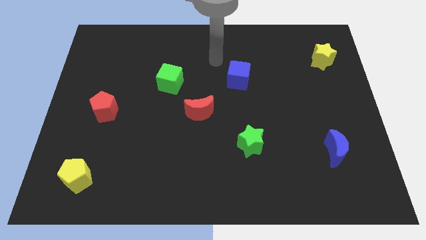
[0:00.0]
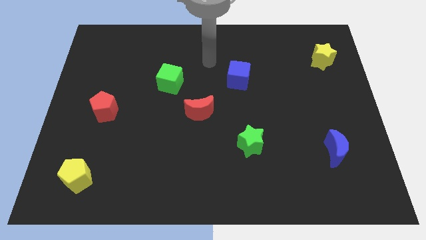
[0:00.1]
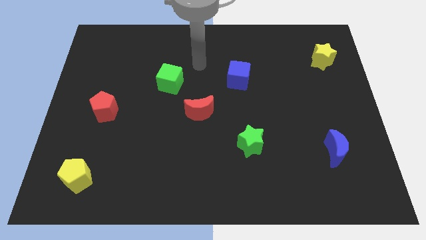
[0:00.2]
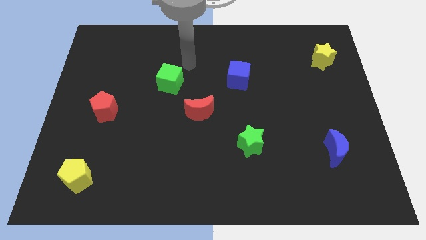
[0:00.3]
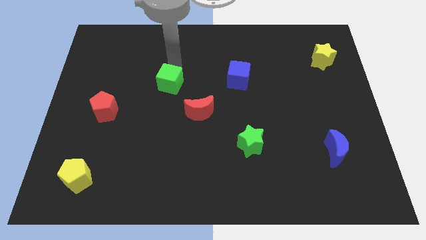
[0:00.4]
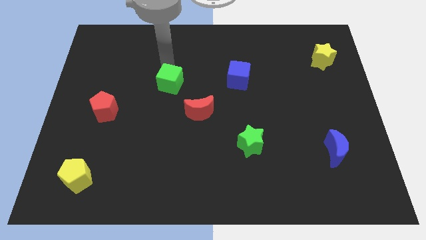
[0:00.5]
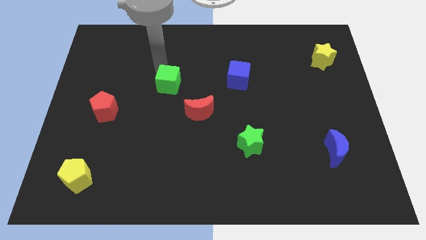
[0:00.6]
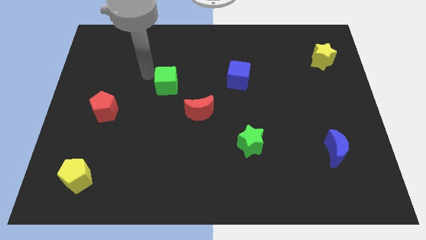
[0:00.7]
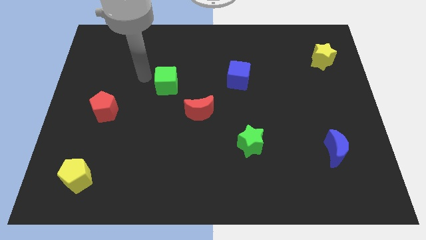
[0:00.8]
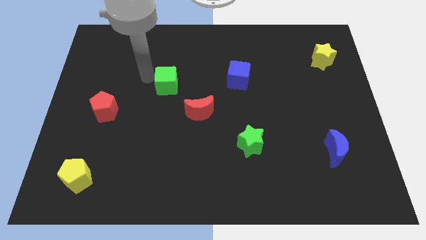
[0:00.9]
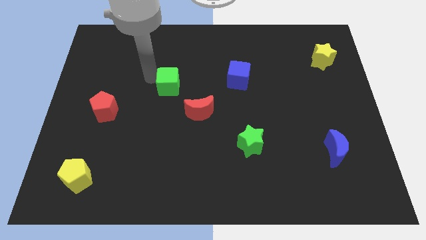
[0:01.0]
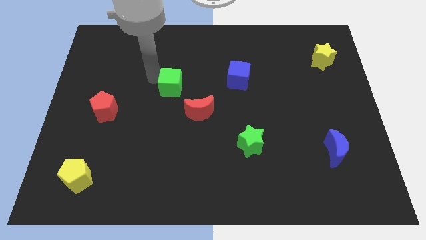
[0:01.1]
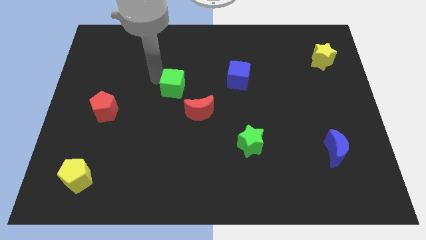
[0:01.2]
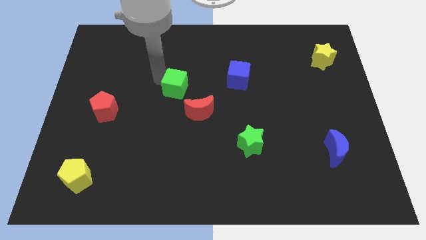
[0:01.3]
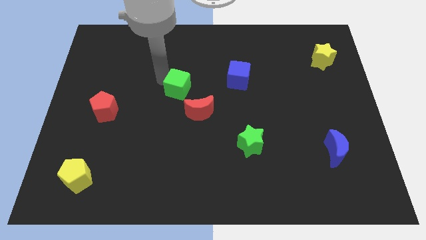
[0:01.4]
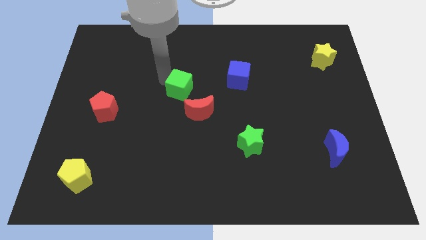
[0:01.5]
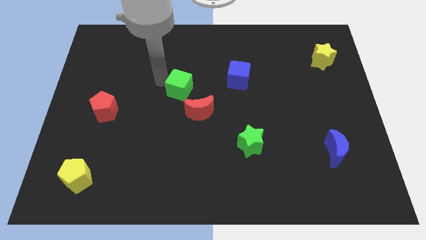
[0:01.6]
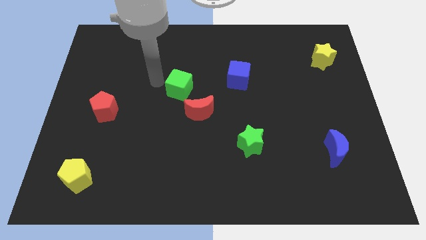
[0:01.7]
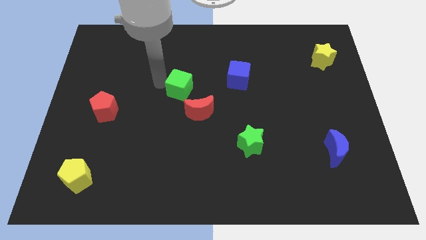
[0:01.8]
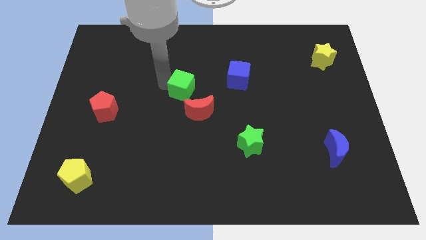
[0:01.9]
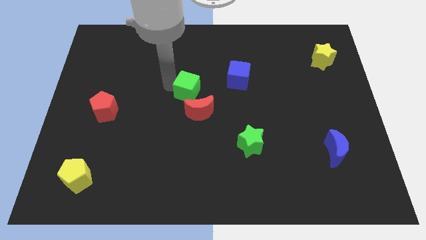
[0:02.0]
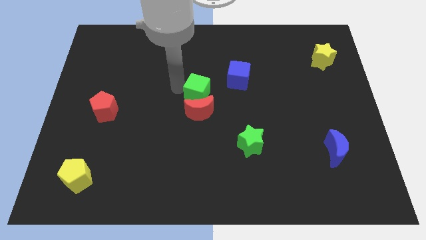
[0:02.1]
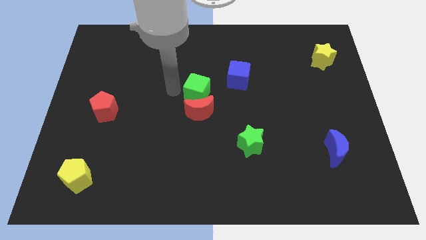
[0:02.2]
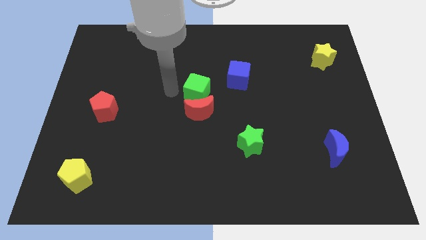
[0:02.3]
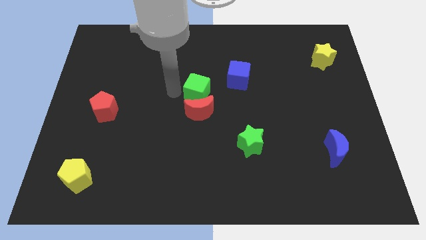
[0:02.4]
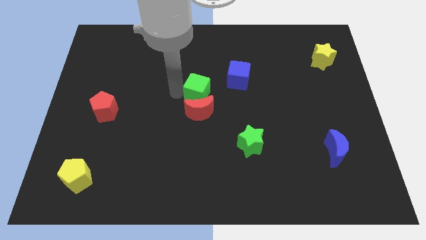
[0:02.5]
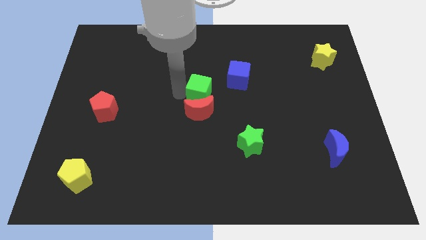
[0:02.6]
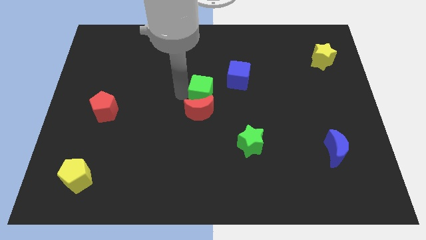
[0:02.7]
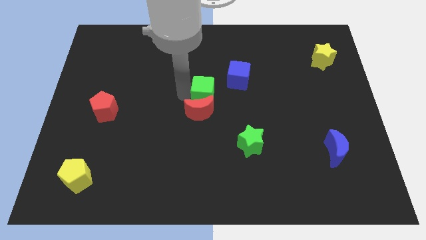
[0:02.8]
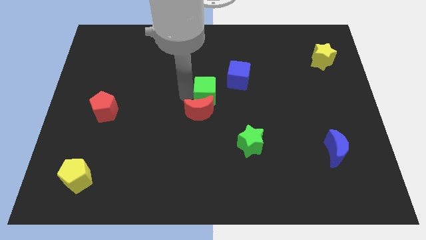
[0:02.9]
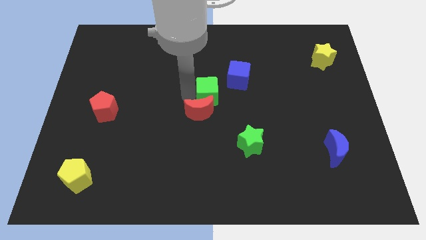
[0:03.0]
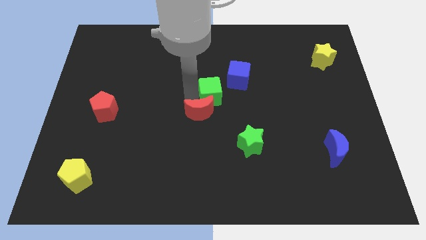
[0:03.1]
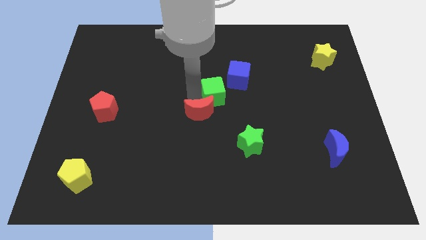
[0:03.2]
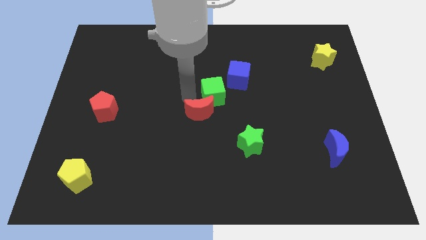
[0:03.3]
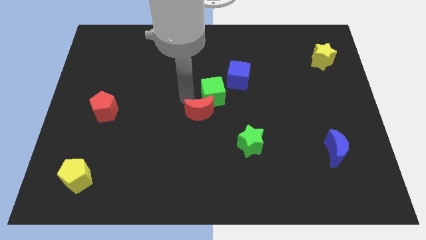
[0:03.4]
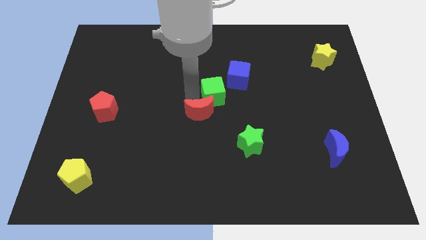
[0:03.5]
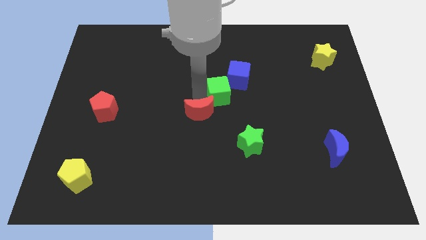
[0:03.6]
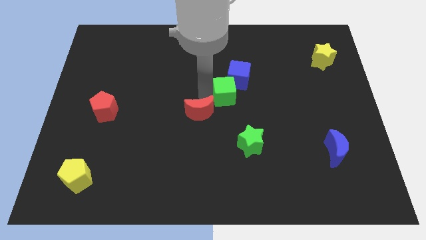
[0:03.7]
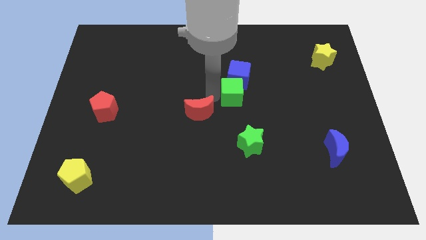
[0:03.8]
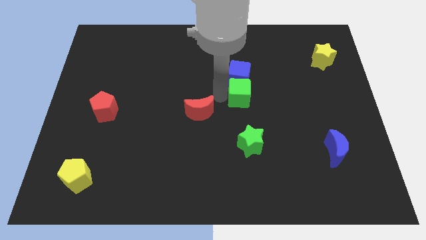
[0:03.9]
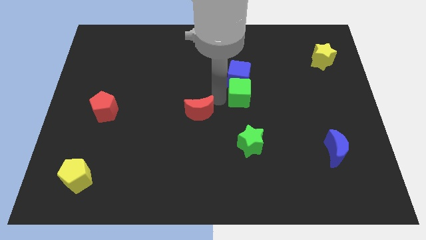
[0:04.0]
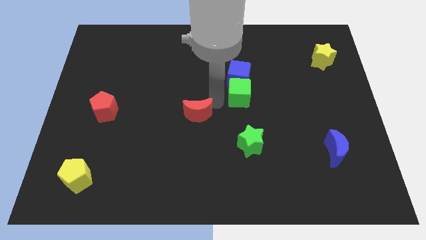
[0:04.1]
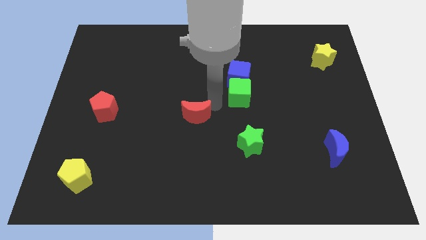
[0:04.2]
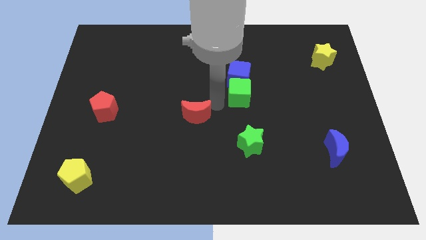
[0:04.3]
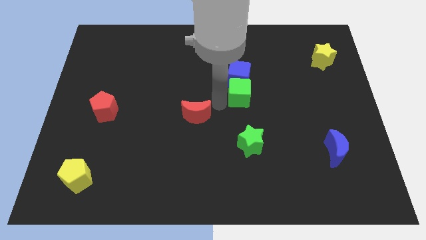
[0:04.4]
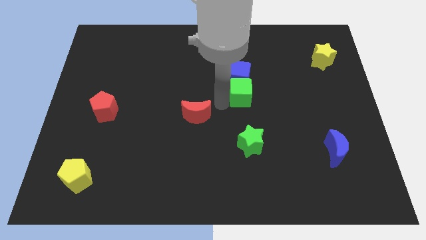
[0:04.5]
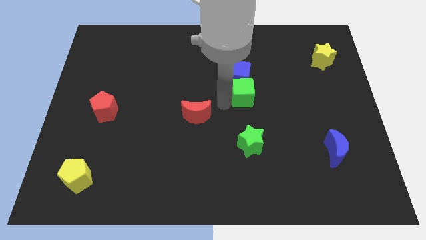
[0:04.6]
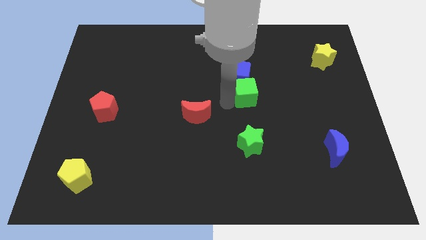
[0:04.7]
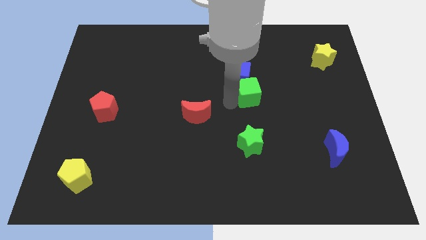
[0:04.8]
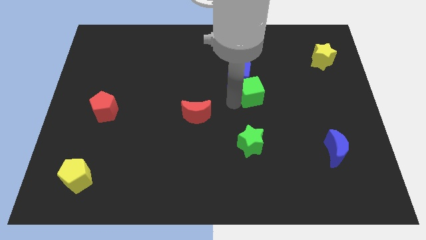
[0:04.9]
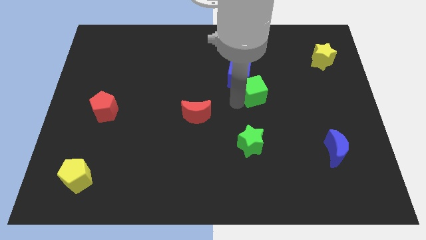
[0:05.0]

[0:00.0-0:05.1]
slide the green cube right

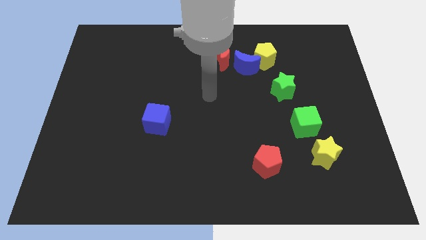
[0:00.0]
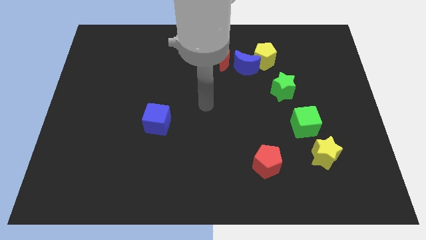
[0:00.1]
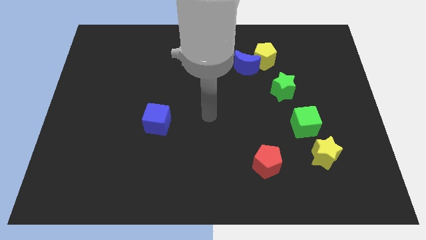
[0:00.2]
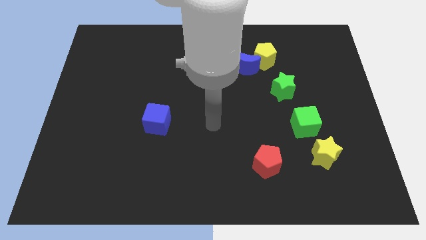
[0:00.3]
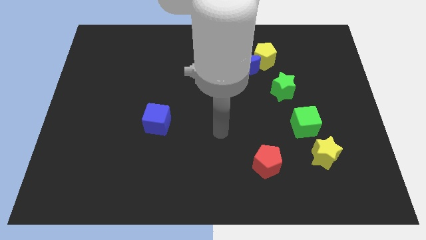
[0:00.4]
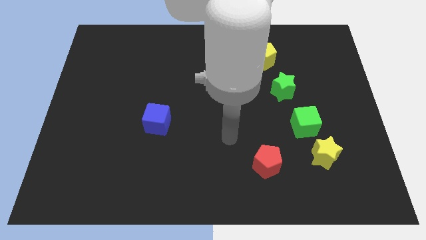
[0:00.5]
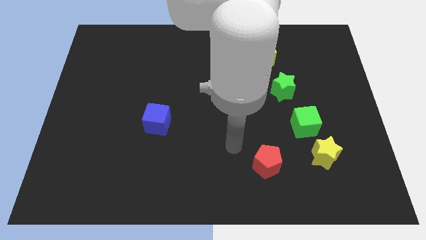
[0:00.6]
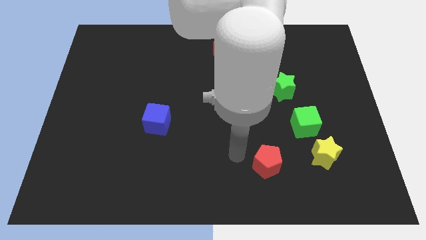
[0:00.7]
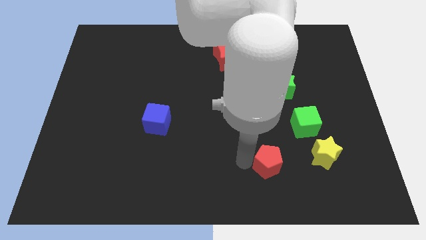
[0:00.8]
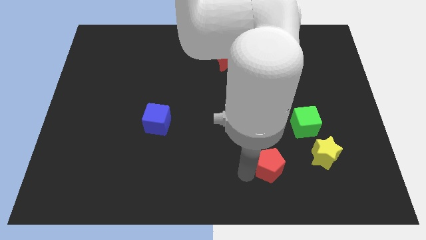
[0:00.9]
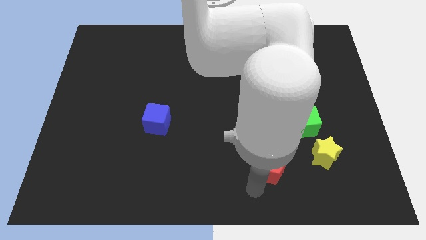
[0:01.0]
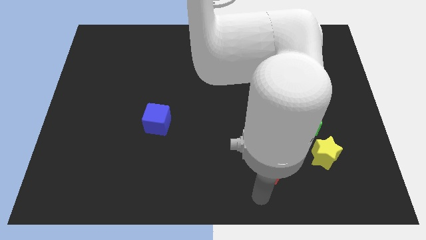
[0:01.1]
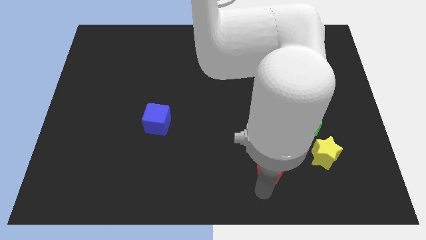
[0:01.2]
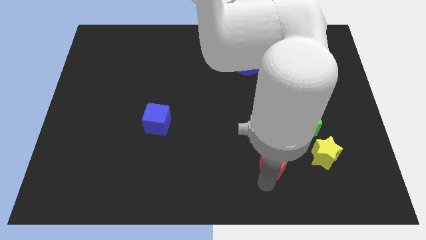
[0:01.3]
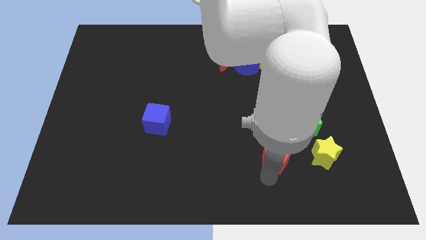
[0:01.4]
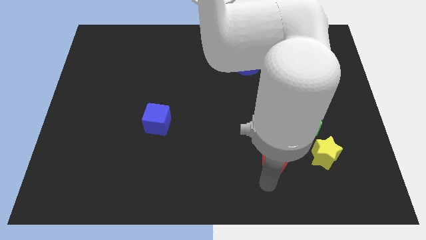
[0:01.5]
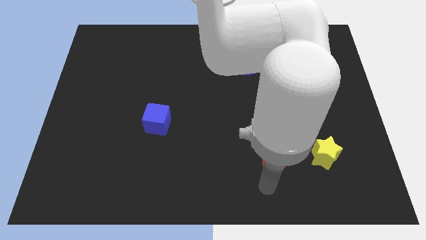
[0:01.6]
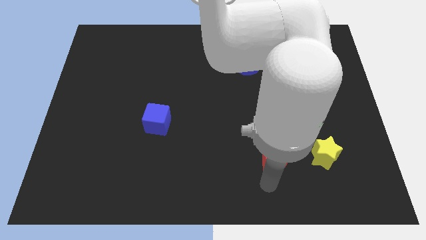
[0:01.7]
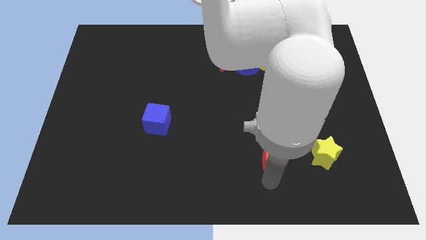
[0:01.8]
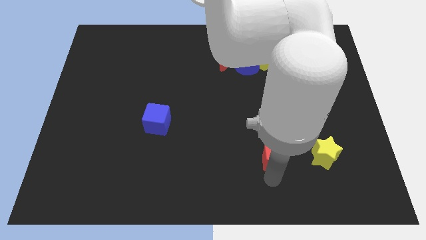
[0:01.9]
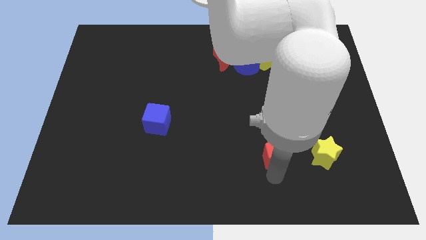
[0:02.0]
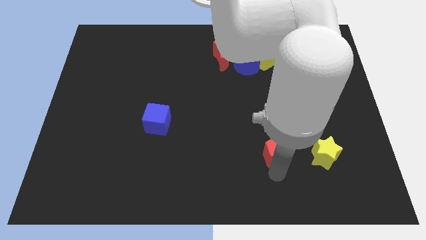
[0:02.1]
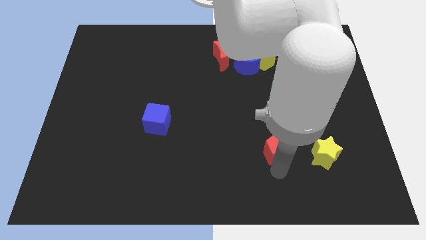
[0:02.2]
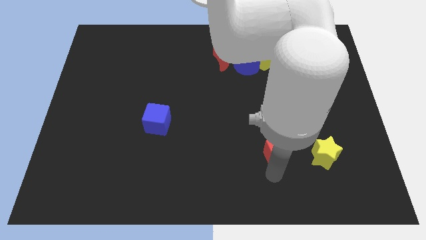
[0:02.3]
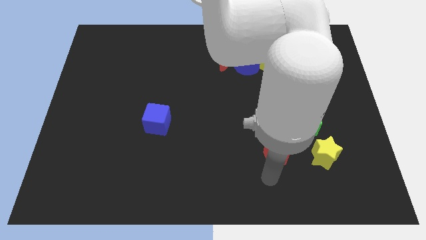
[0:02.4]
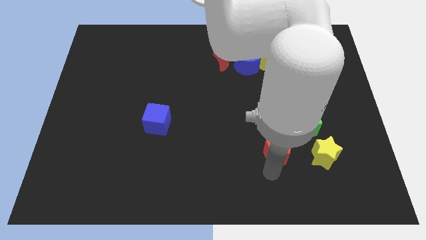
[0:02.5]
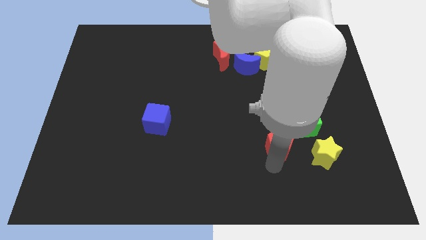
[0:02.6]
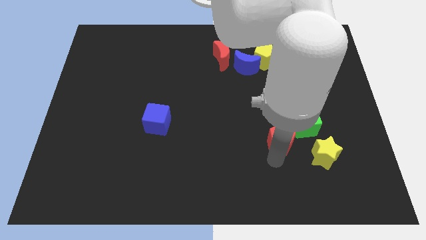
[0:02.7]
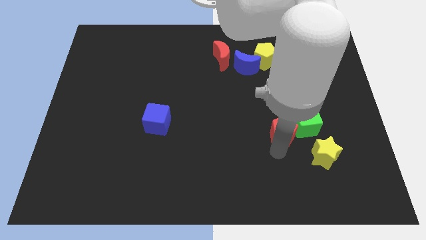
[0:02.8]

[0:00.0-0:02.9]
slide the red pentagon diagonally upwards and right a little bit
